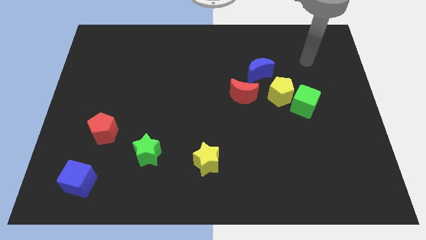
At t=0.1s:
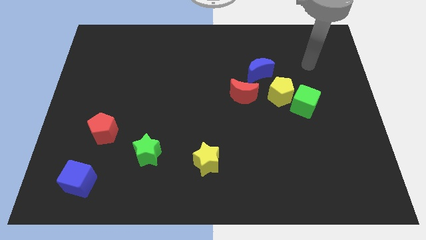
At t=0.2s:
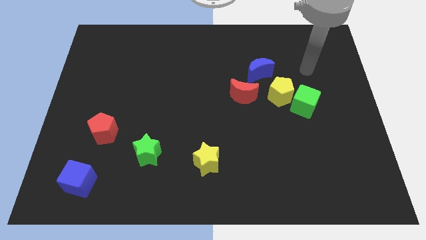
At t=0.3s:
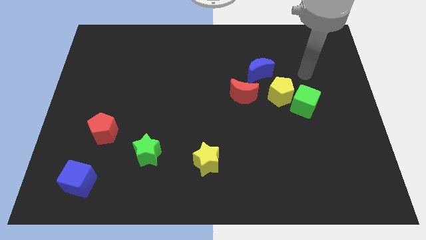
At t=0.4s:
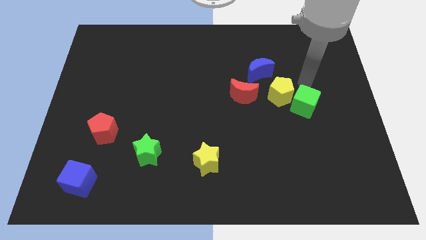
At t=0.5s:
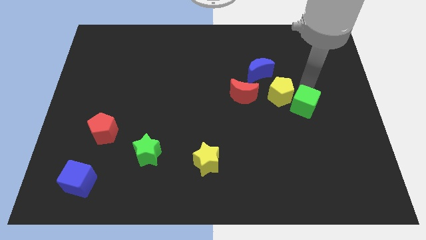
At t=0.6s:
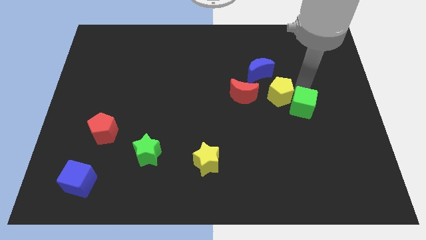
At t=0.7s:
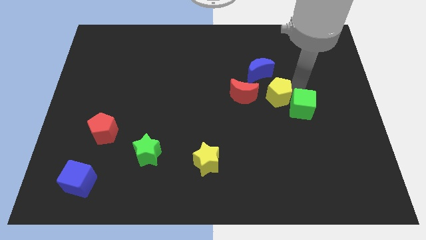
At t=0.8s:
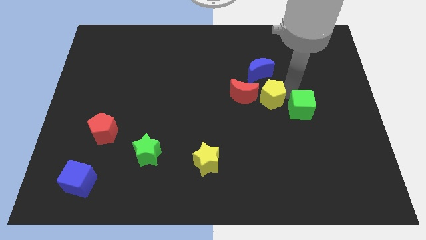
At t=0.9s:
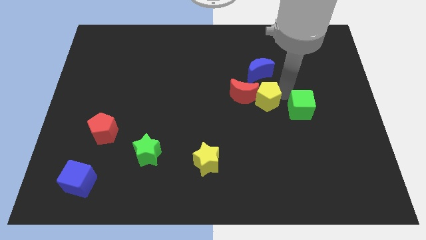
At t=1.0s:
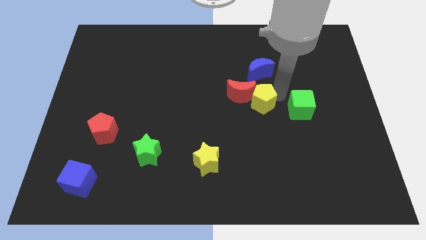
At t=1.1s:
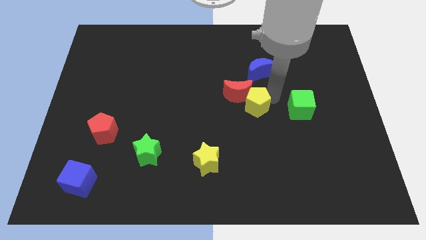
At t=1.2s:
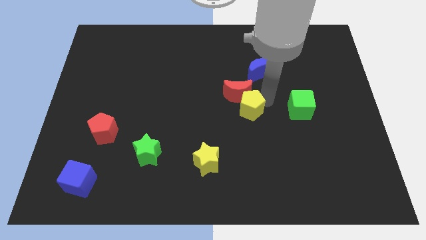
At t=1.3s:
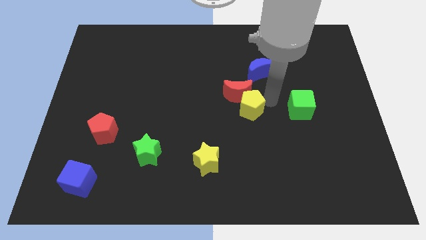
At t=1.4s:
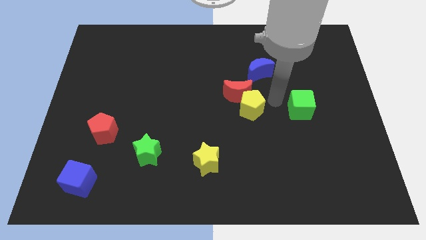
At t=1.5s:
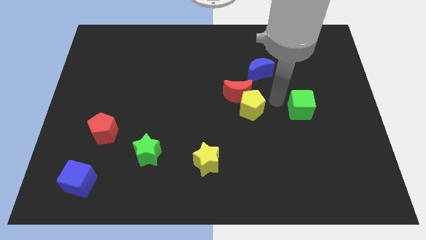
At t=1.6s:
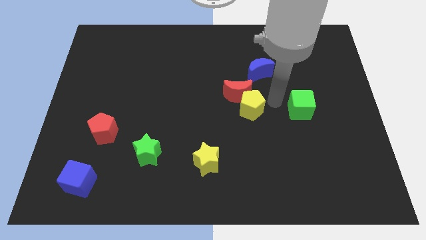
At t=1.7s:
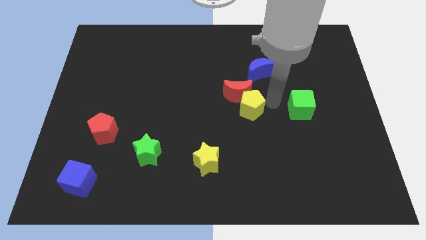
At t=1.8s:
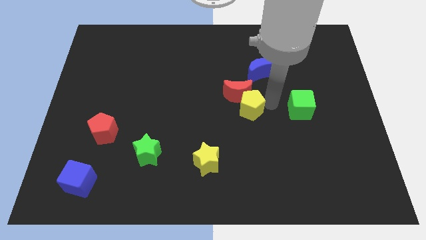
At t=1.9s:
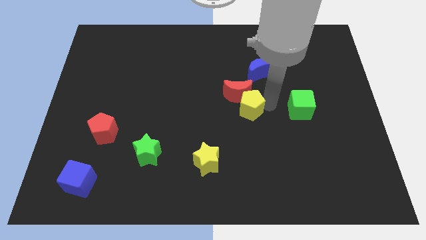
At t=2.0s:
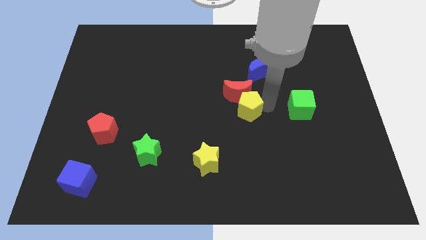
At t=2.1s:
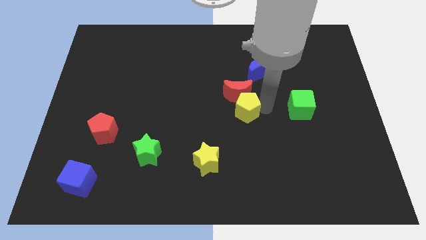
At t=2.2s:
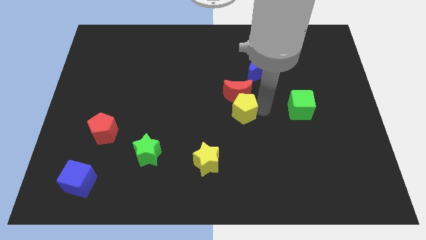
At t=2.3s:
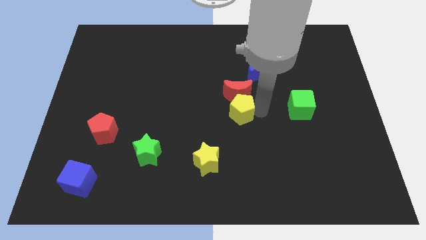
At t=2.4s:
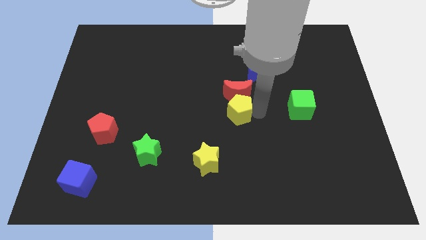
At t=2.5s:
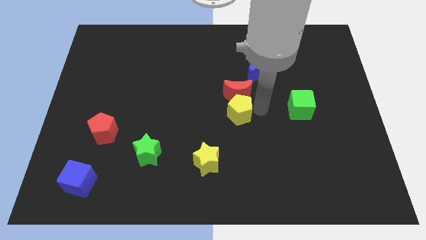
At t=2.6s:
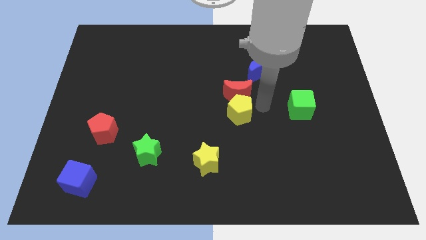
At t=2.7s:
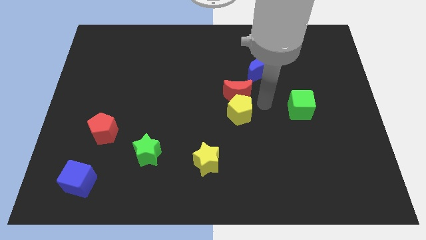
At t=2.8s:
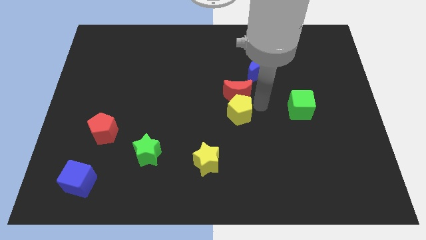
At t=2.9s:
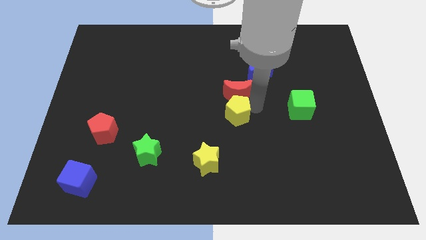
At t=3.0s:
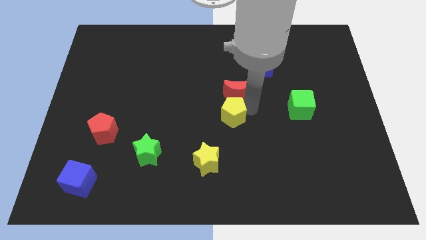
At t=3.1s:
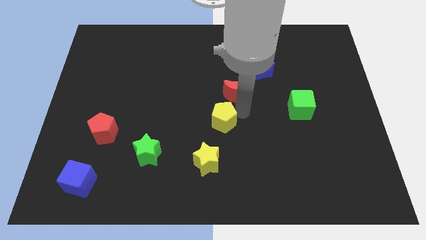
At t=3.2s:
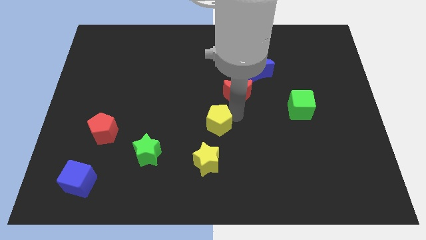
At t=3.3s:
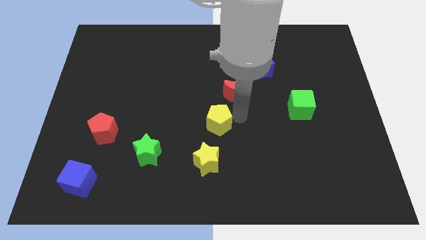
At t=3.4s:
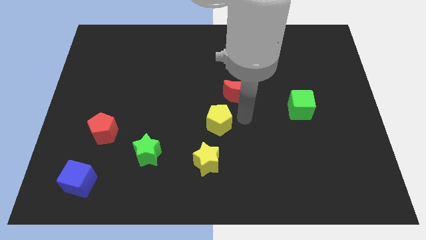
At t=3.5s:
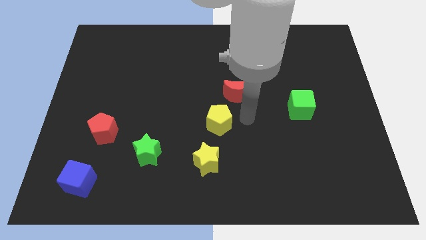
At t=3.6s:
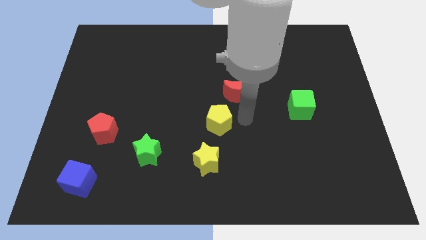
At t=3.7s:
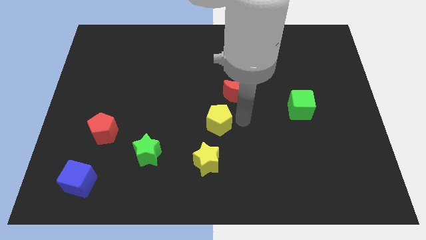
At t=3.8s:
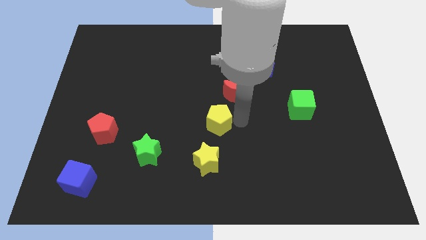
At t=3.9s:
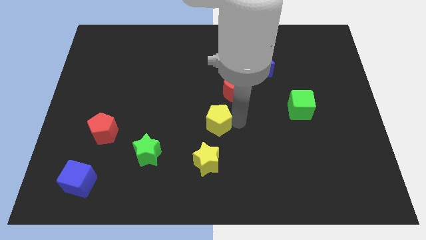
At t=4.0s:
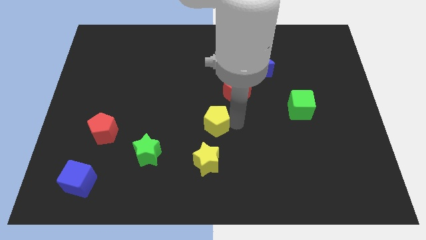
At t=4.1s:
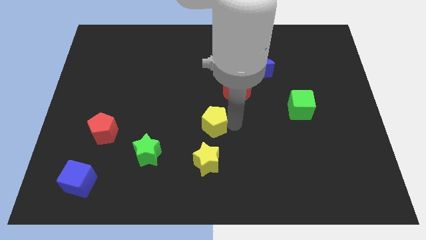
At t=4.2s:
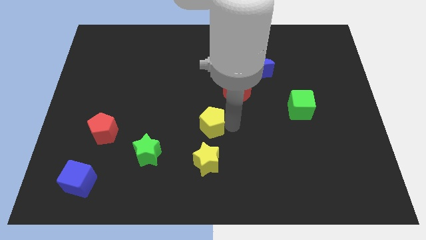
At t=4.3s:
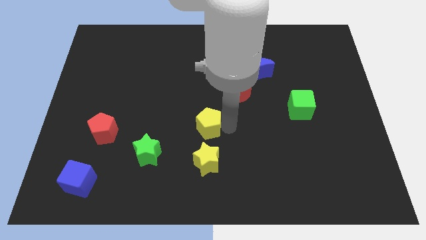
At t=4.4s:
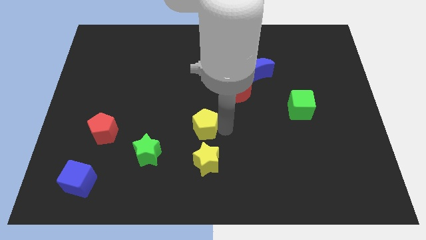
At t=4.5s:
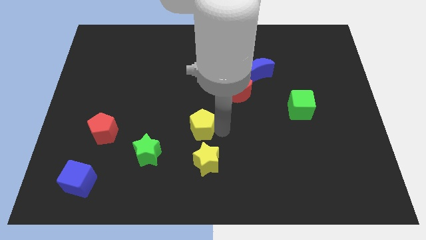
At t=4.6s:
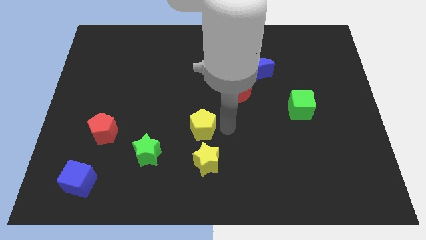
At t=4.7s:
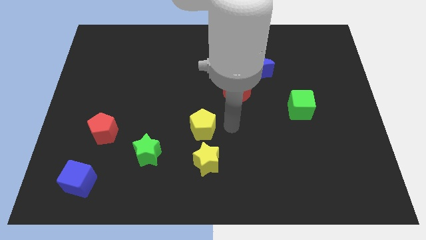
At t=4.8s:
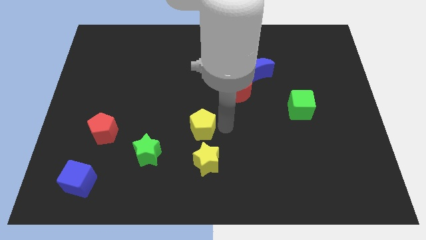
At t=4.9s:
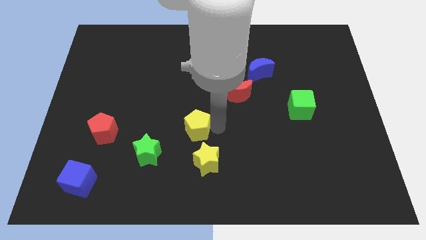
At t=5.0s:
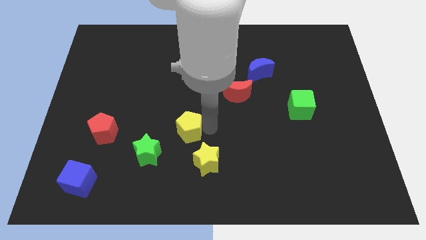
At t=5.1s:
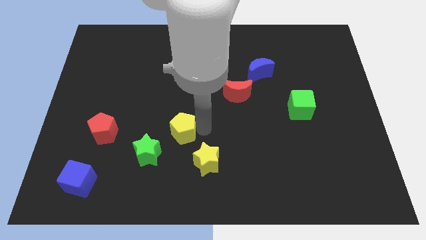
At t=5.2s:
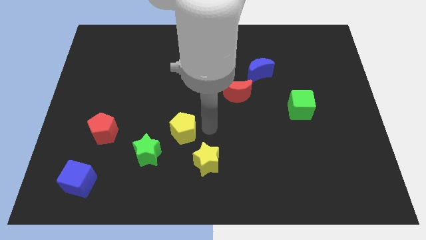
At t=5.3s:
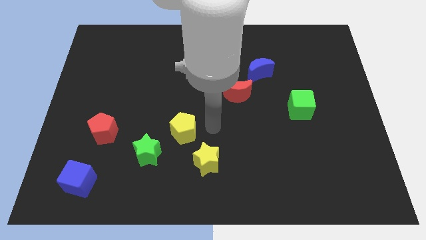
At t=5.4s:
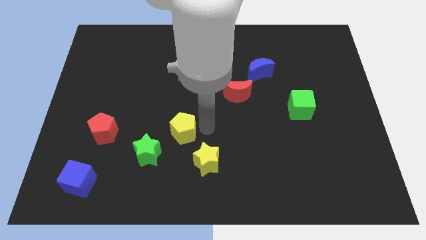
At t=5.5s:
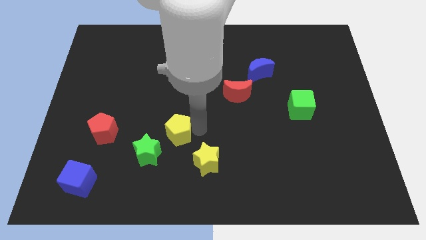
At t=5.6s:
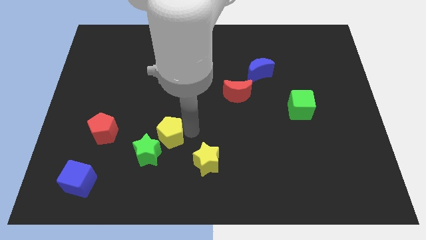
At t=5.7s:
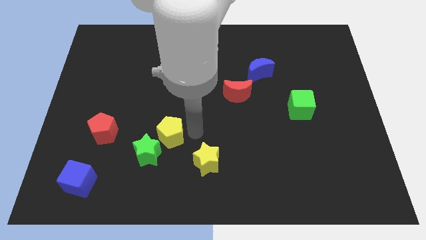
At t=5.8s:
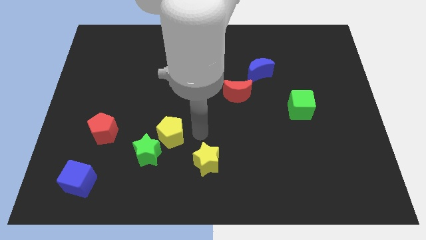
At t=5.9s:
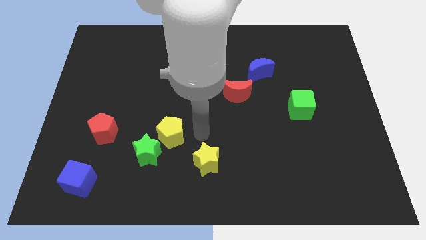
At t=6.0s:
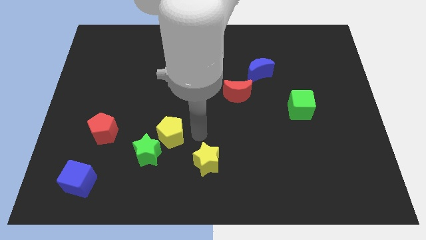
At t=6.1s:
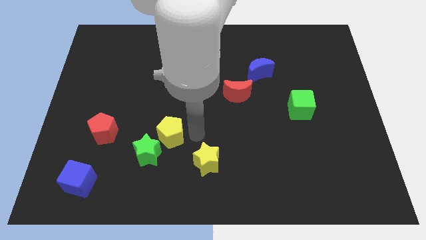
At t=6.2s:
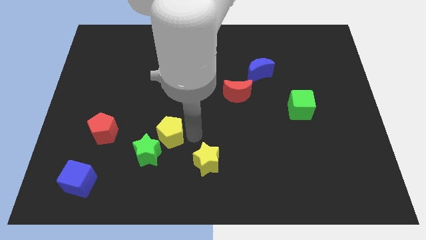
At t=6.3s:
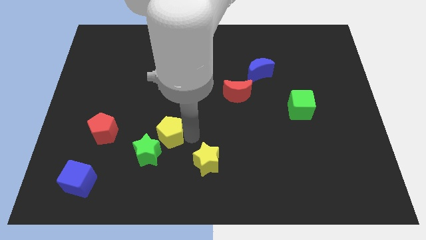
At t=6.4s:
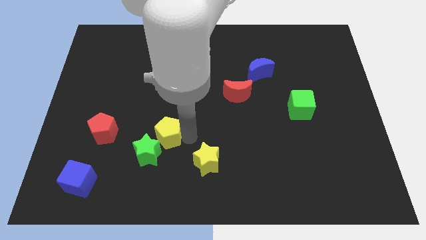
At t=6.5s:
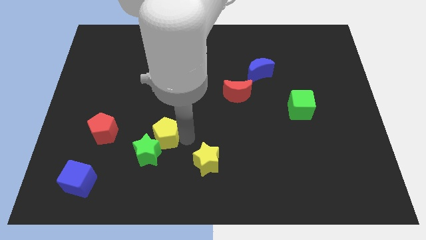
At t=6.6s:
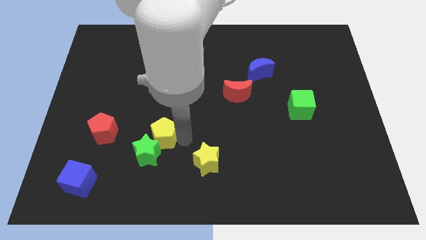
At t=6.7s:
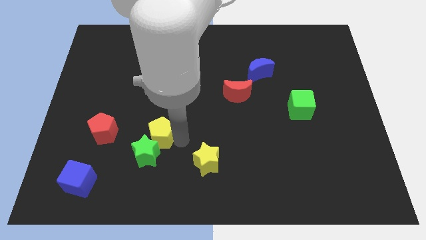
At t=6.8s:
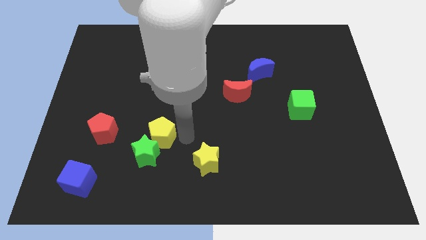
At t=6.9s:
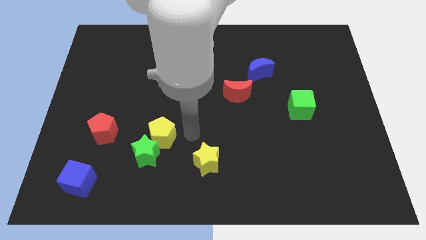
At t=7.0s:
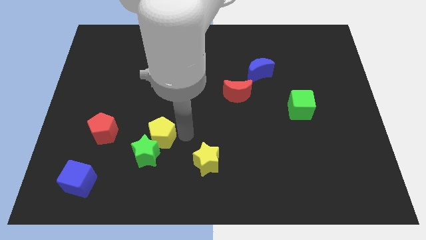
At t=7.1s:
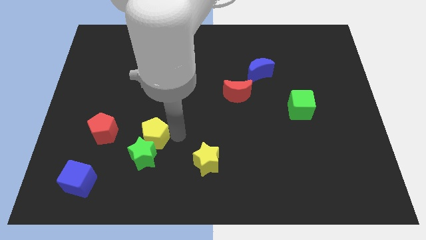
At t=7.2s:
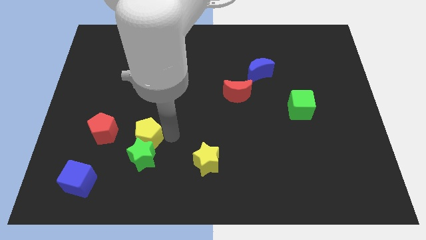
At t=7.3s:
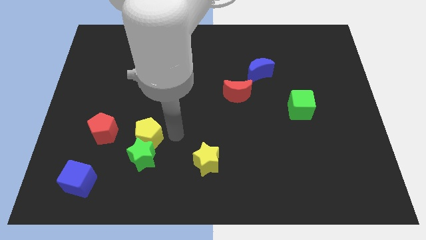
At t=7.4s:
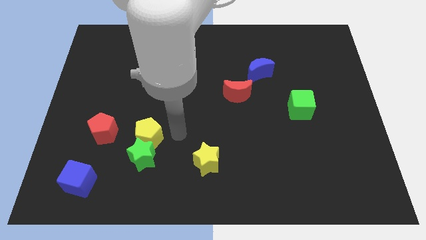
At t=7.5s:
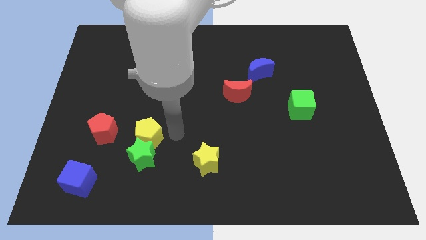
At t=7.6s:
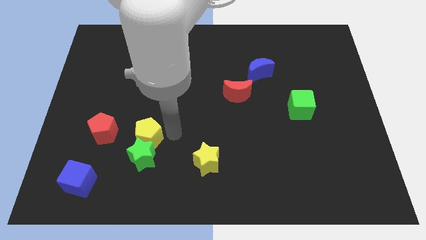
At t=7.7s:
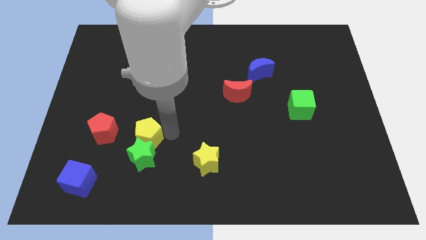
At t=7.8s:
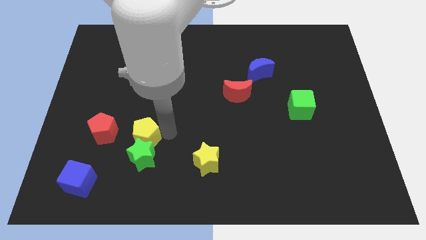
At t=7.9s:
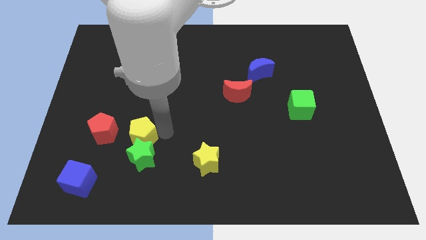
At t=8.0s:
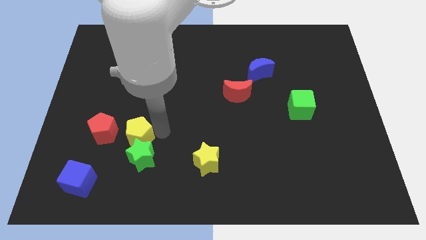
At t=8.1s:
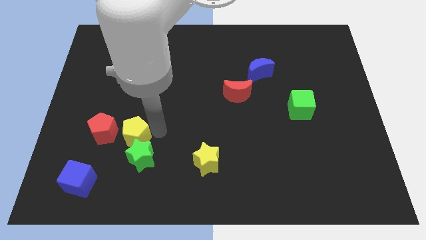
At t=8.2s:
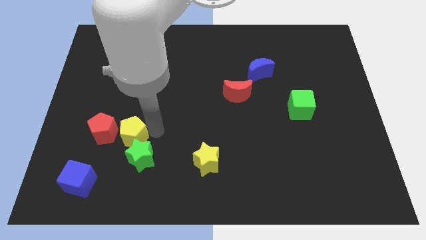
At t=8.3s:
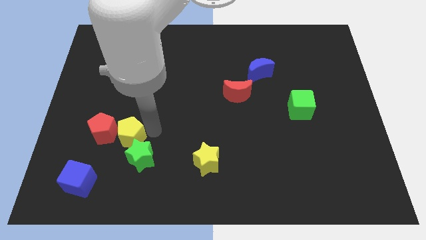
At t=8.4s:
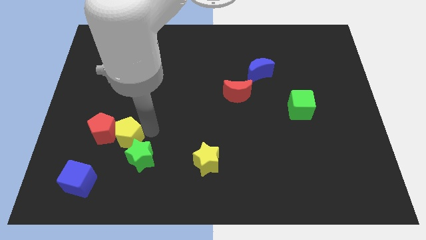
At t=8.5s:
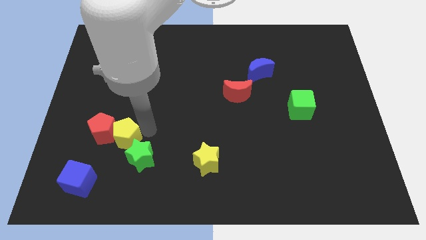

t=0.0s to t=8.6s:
put the yellow pentagon to the left side of the green star
